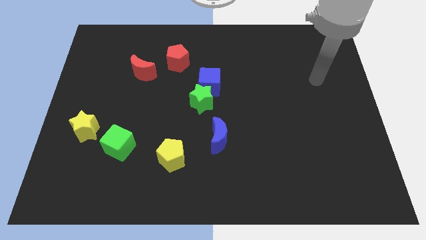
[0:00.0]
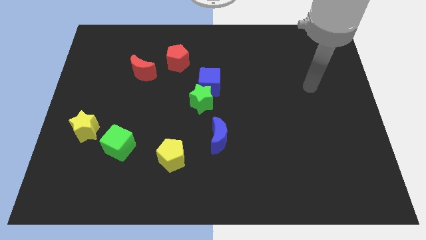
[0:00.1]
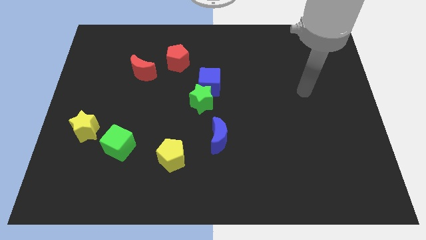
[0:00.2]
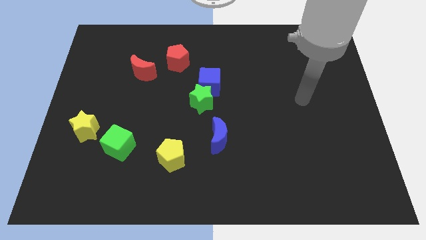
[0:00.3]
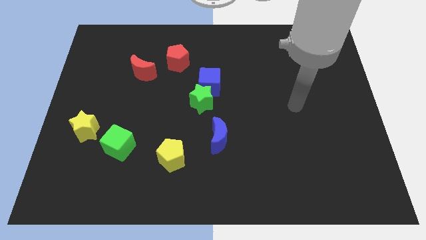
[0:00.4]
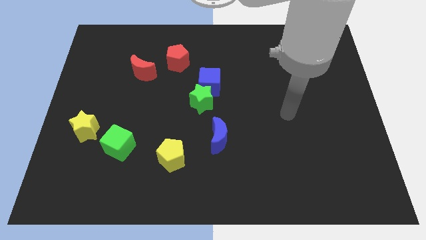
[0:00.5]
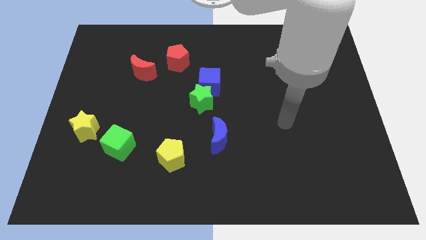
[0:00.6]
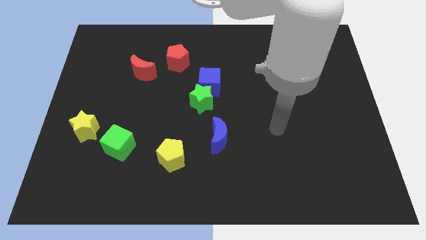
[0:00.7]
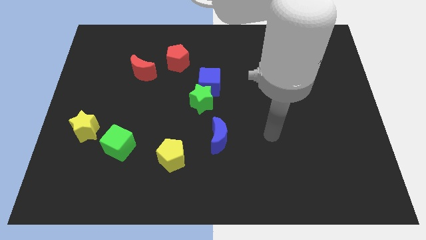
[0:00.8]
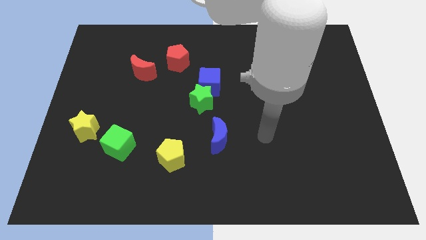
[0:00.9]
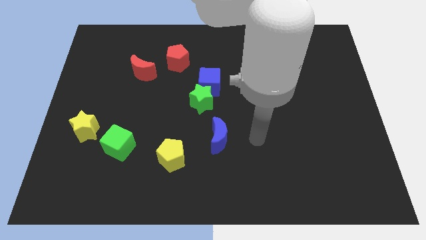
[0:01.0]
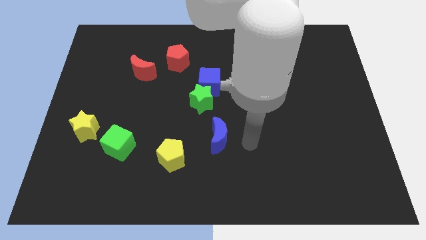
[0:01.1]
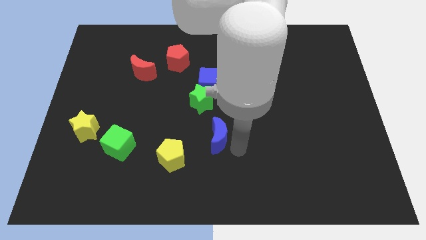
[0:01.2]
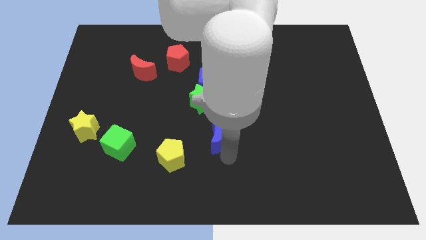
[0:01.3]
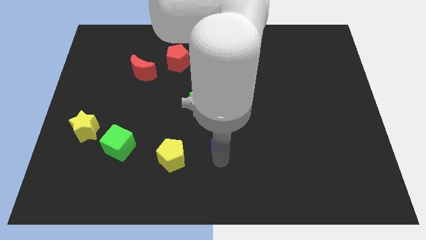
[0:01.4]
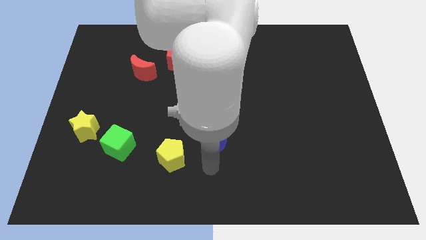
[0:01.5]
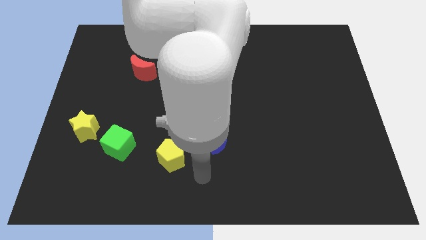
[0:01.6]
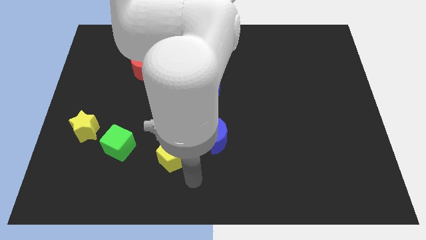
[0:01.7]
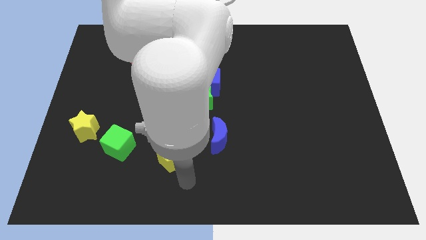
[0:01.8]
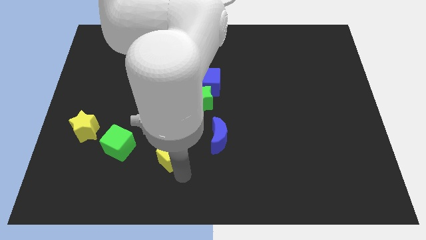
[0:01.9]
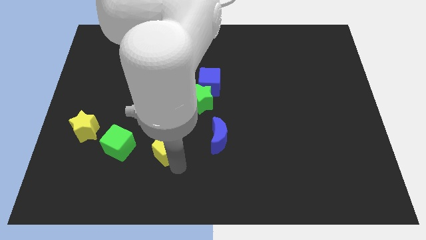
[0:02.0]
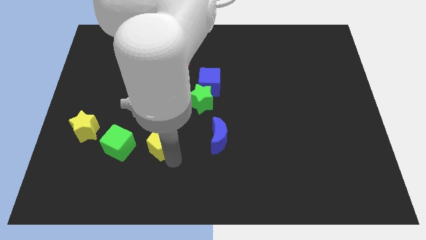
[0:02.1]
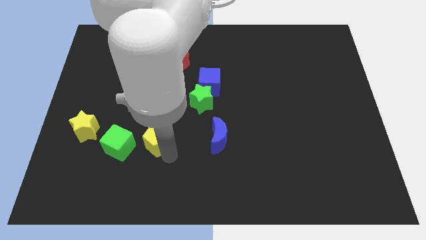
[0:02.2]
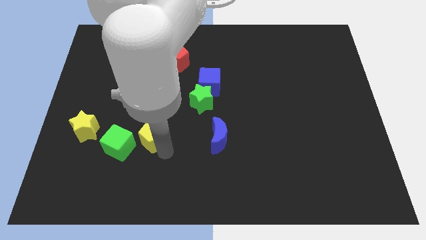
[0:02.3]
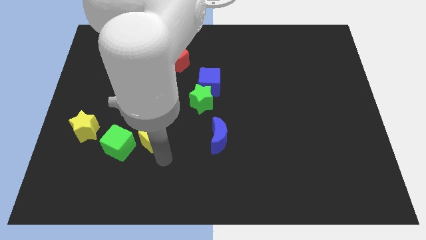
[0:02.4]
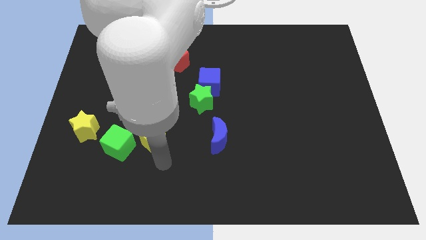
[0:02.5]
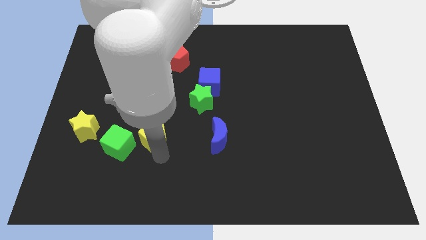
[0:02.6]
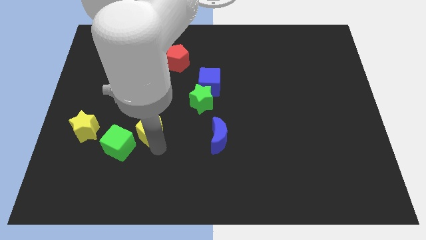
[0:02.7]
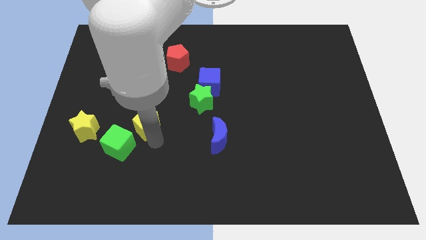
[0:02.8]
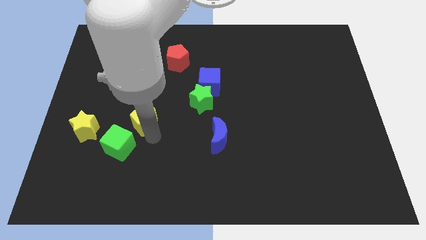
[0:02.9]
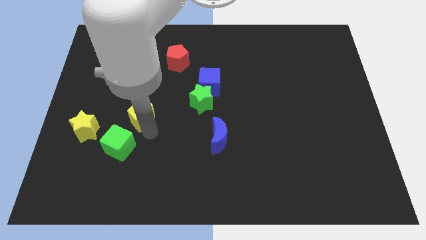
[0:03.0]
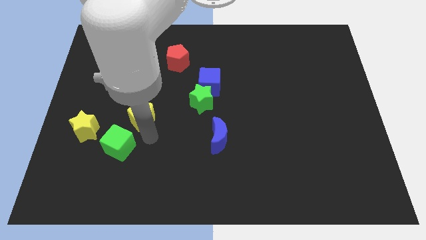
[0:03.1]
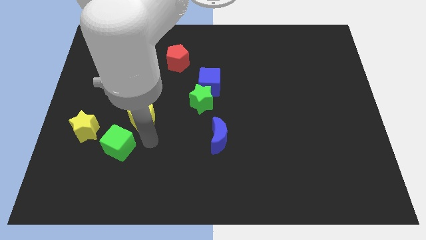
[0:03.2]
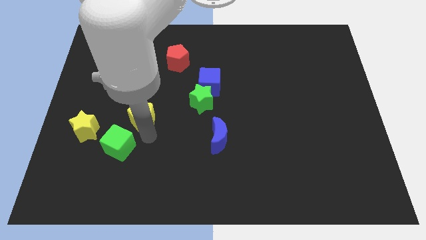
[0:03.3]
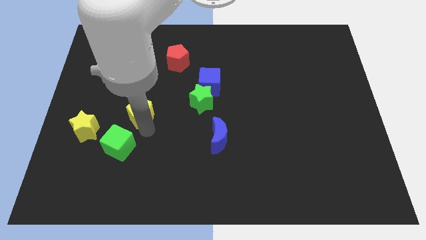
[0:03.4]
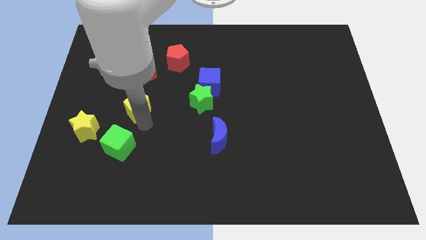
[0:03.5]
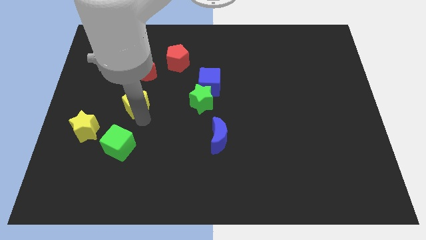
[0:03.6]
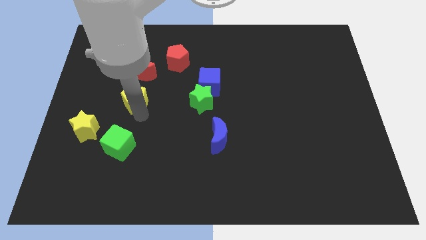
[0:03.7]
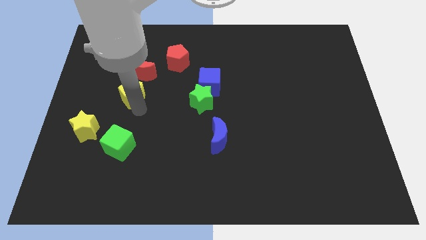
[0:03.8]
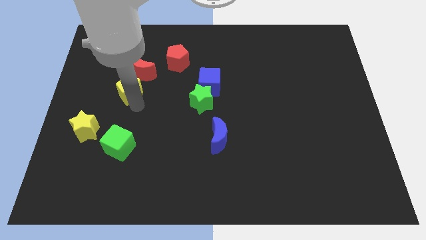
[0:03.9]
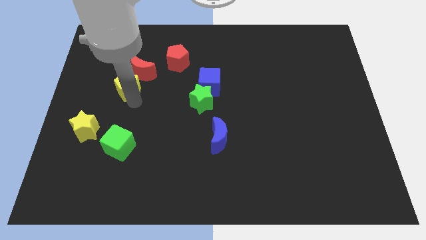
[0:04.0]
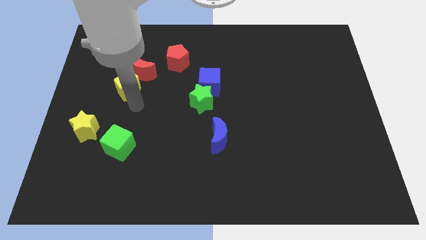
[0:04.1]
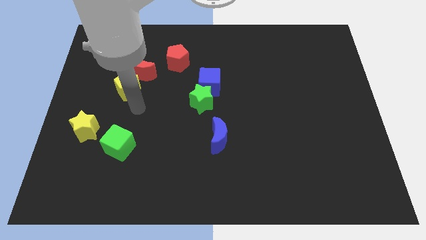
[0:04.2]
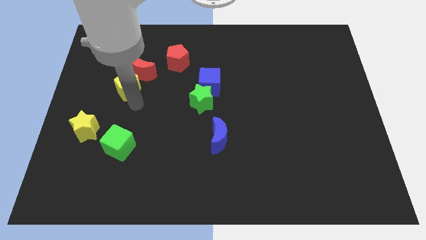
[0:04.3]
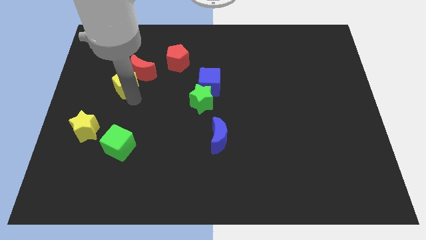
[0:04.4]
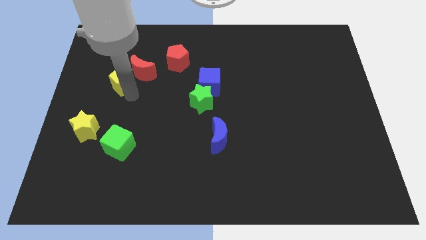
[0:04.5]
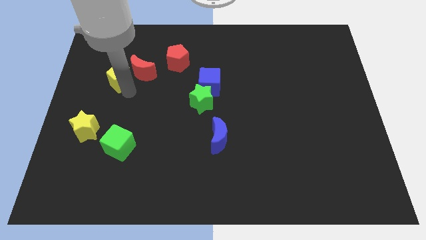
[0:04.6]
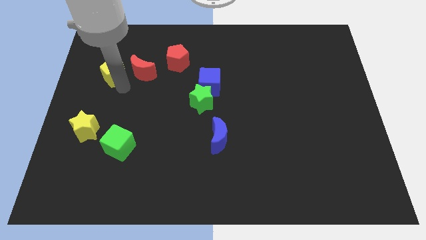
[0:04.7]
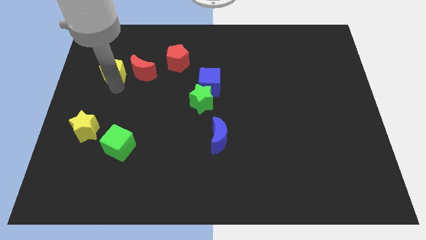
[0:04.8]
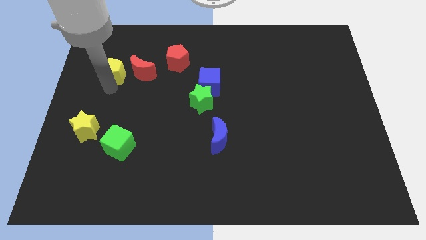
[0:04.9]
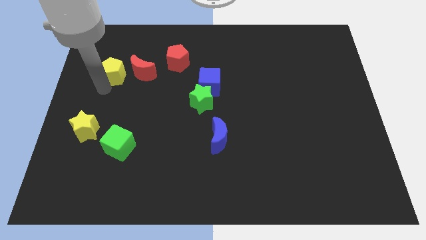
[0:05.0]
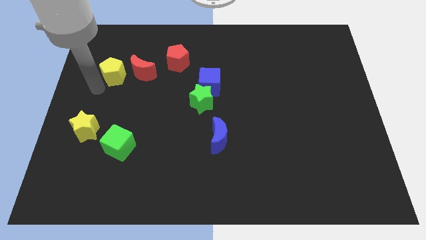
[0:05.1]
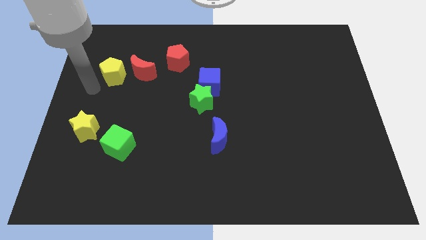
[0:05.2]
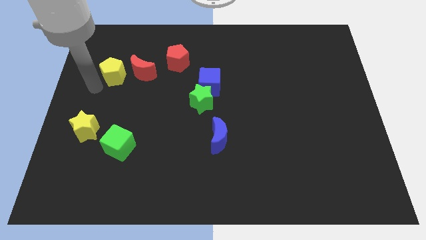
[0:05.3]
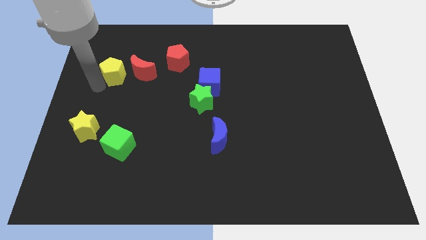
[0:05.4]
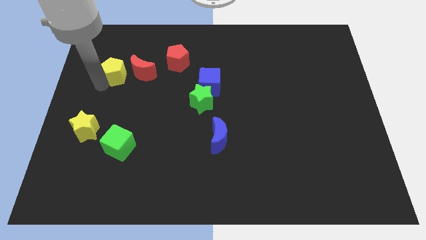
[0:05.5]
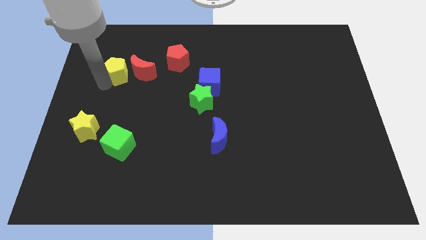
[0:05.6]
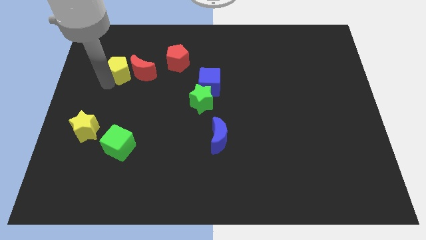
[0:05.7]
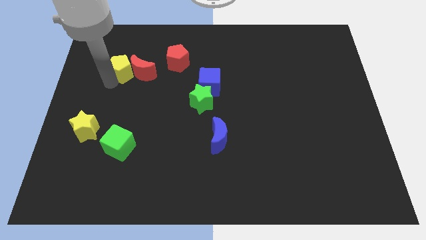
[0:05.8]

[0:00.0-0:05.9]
slide the yellow pentagon left of the red pentagon

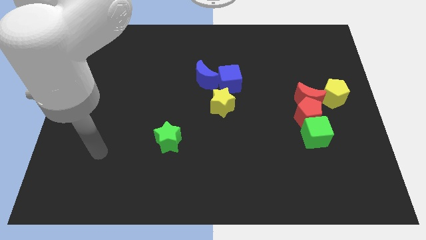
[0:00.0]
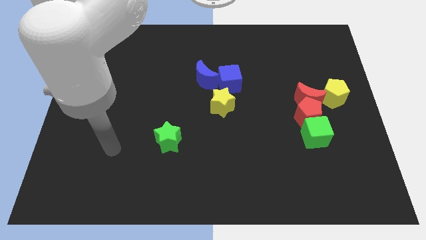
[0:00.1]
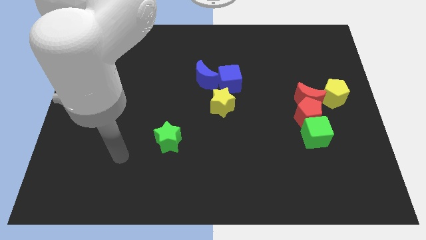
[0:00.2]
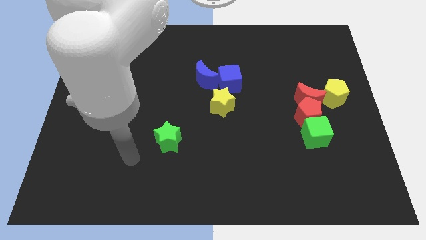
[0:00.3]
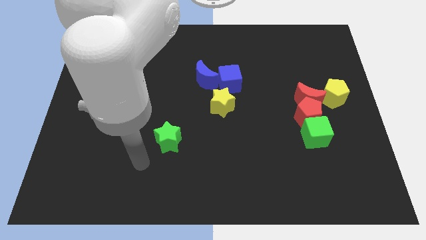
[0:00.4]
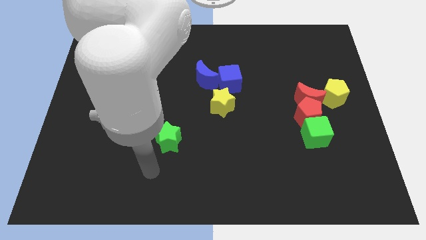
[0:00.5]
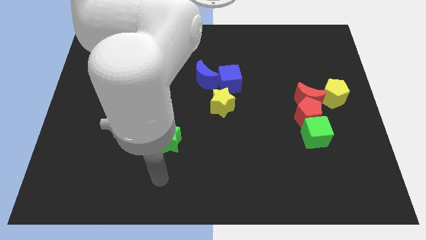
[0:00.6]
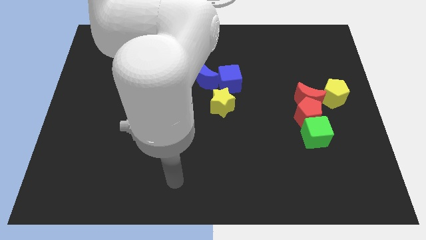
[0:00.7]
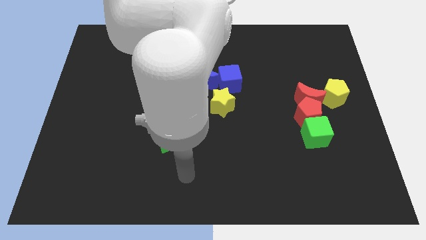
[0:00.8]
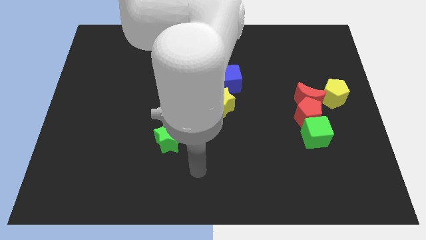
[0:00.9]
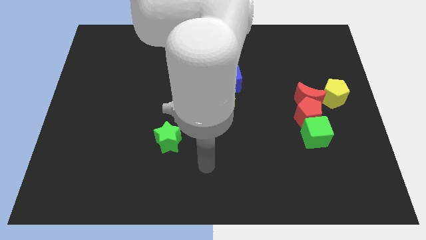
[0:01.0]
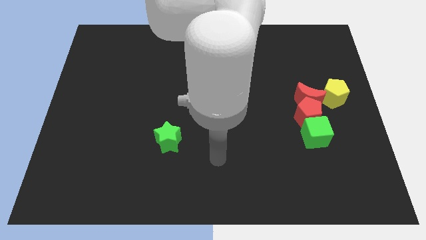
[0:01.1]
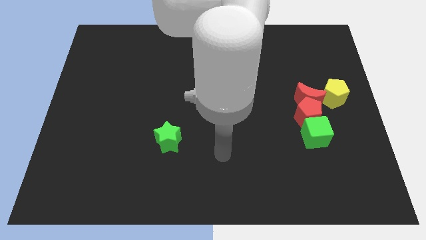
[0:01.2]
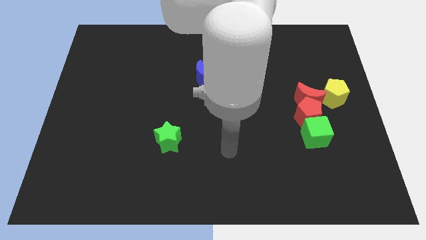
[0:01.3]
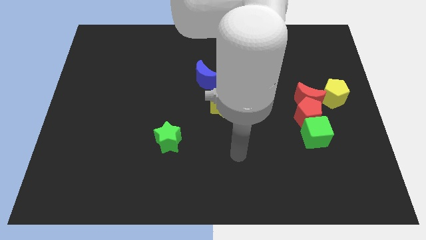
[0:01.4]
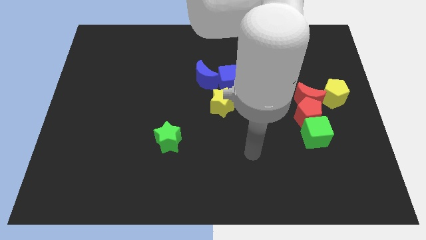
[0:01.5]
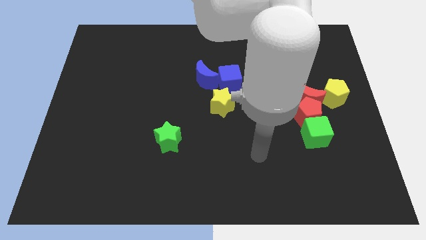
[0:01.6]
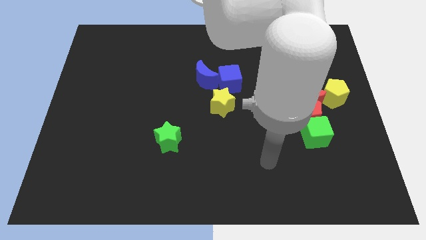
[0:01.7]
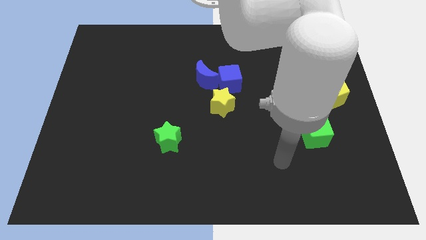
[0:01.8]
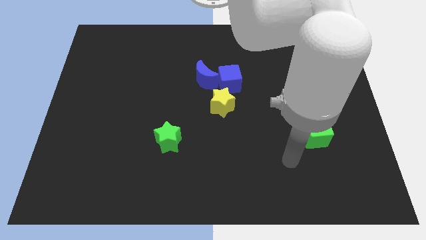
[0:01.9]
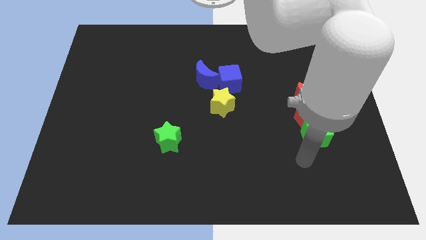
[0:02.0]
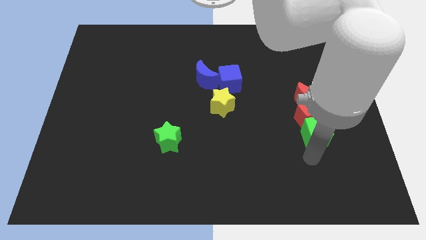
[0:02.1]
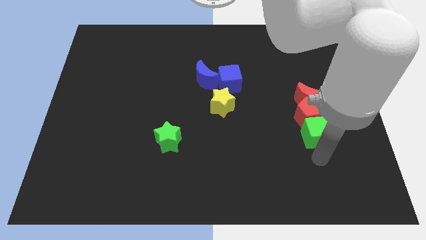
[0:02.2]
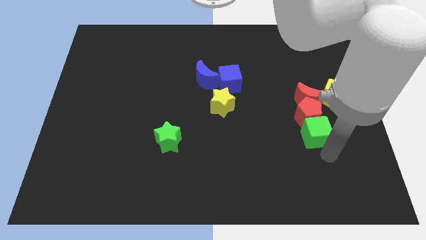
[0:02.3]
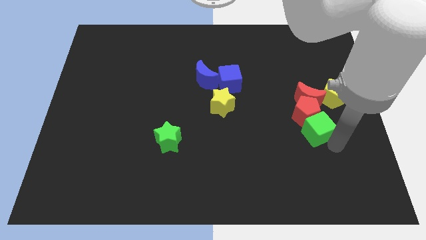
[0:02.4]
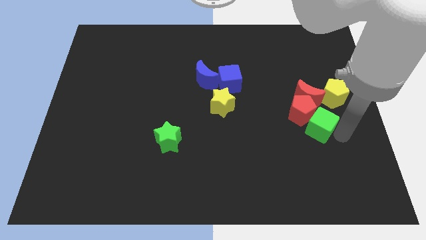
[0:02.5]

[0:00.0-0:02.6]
push the yellow pentagon above the green cube
